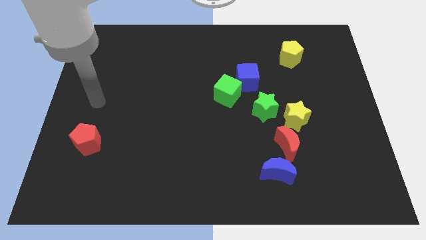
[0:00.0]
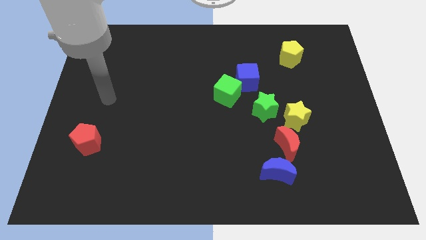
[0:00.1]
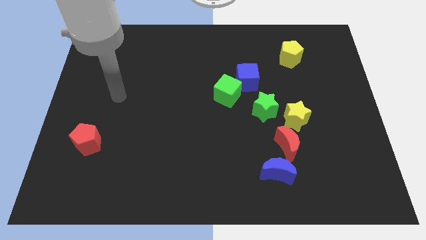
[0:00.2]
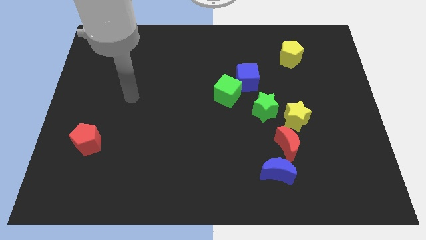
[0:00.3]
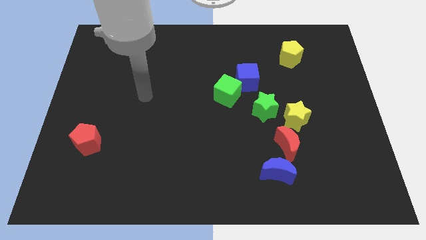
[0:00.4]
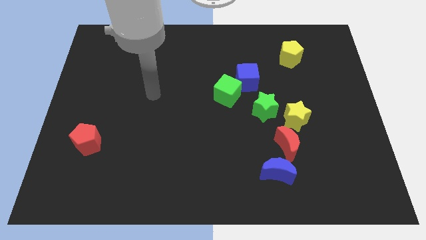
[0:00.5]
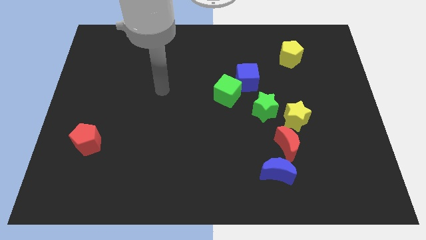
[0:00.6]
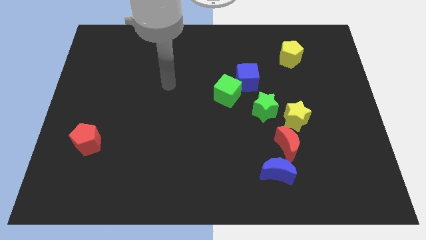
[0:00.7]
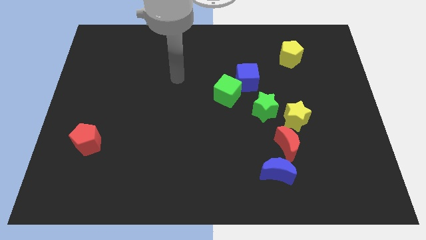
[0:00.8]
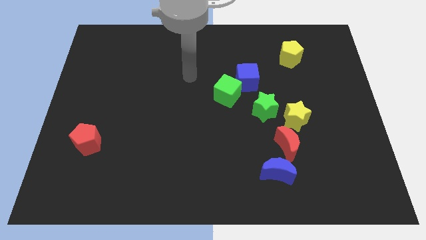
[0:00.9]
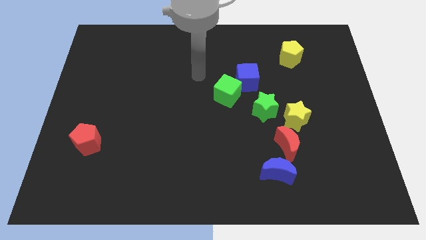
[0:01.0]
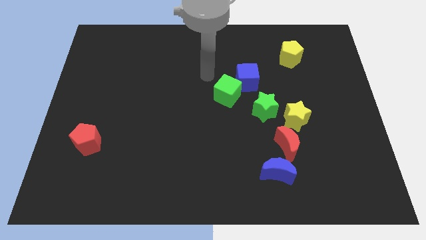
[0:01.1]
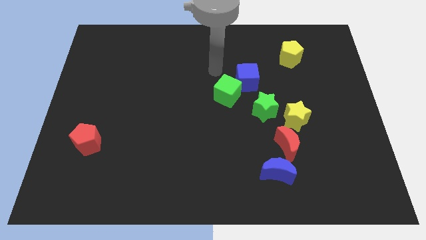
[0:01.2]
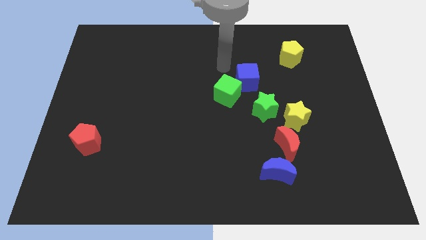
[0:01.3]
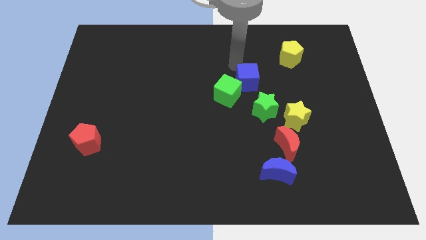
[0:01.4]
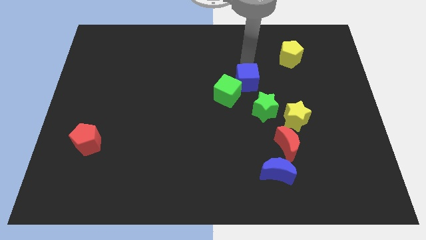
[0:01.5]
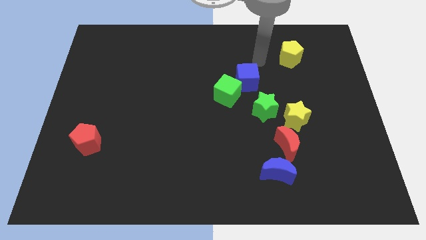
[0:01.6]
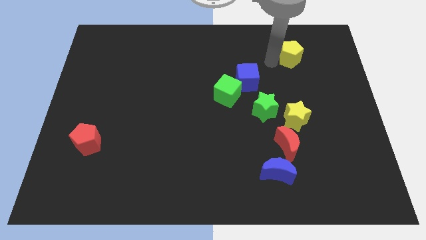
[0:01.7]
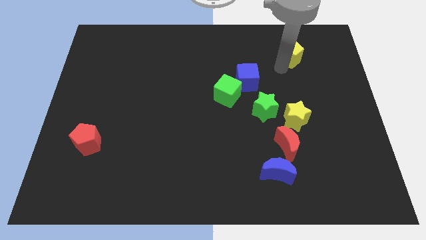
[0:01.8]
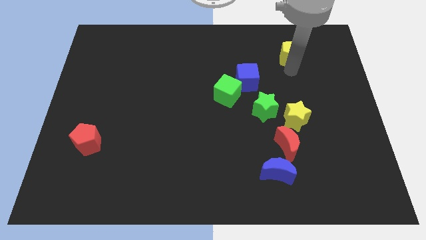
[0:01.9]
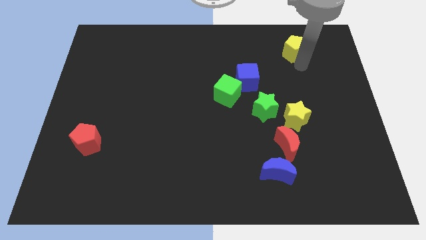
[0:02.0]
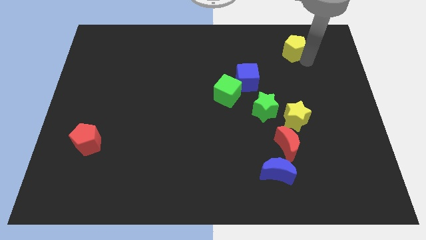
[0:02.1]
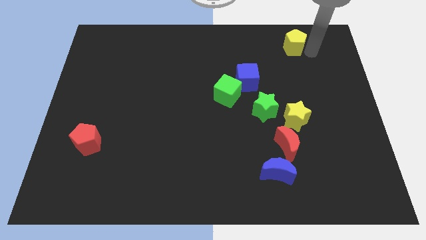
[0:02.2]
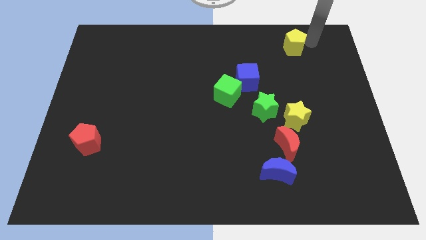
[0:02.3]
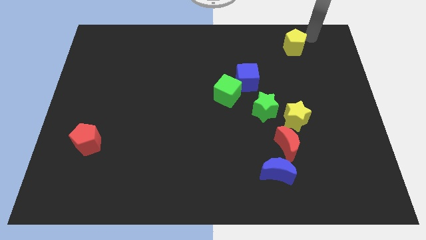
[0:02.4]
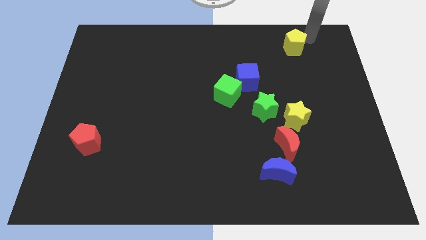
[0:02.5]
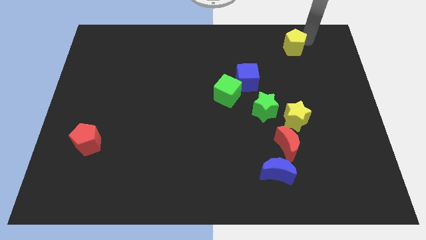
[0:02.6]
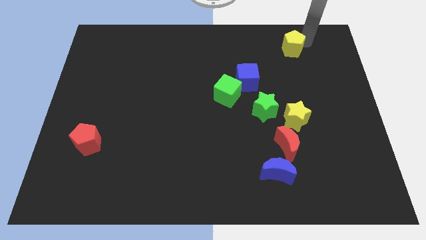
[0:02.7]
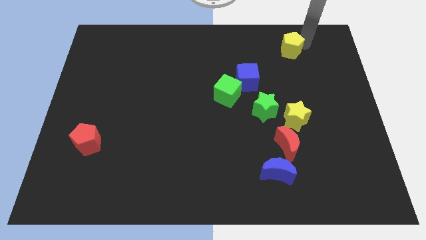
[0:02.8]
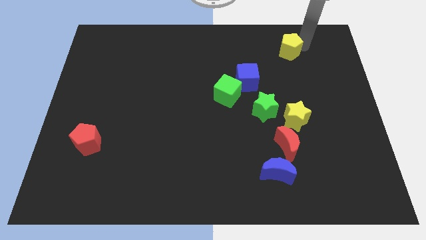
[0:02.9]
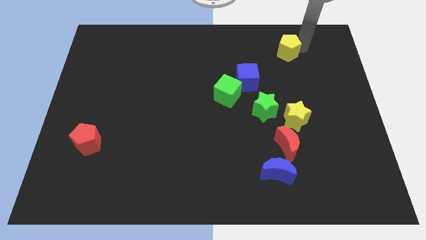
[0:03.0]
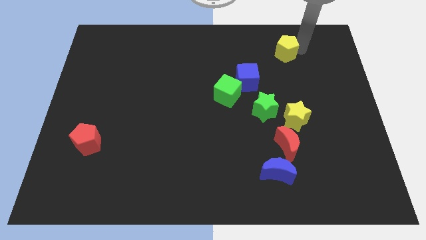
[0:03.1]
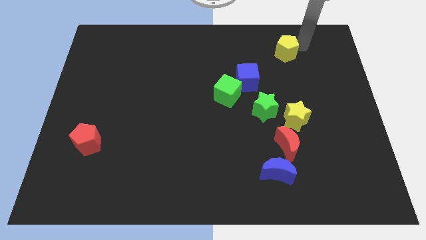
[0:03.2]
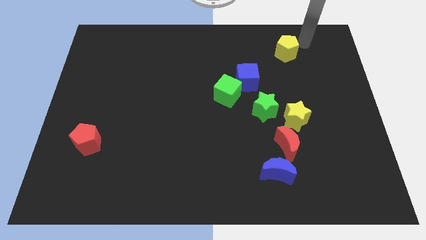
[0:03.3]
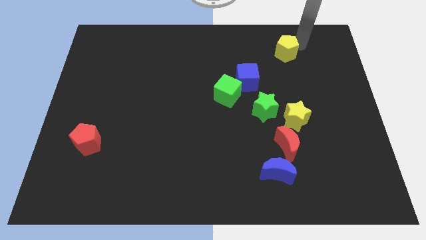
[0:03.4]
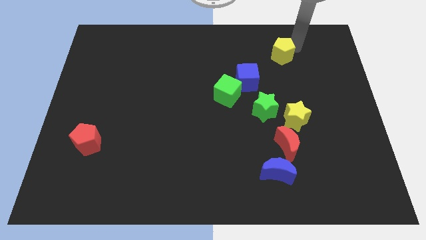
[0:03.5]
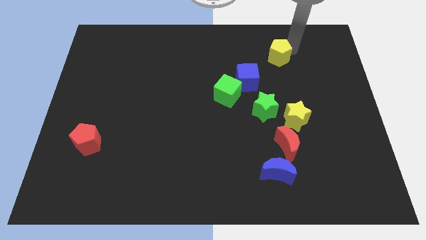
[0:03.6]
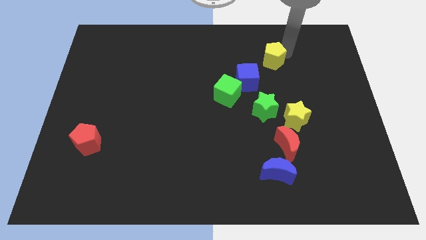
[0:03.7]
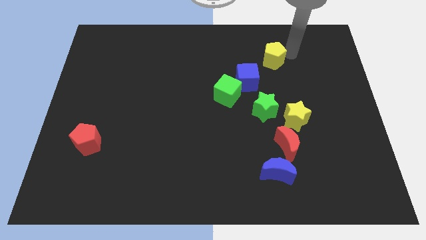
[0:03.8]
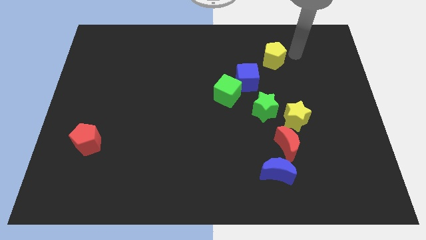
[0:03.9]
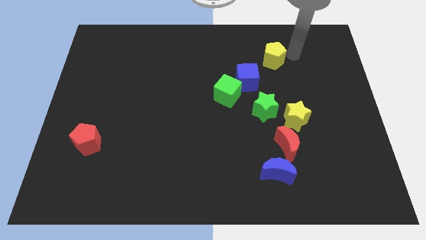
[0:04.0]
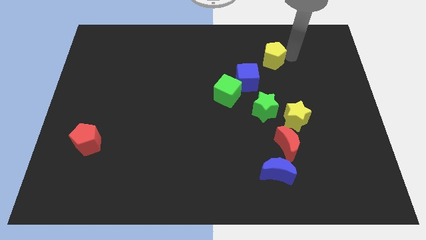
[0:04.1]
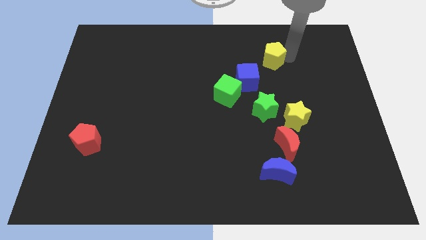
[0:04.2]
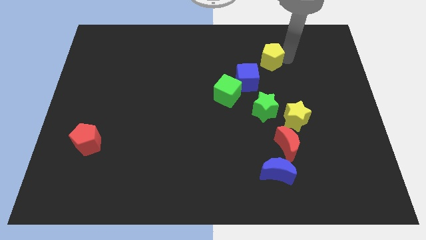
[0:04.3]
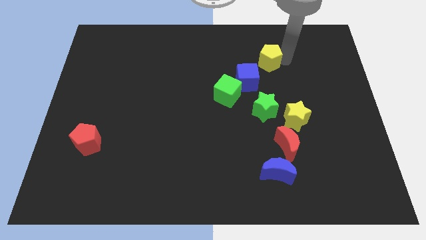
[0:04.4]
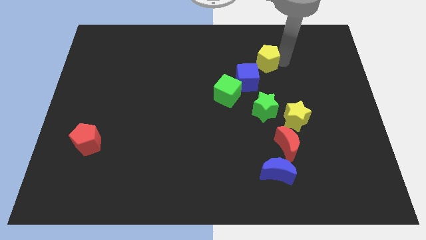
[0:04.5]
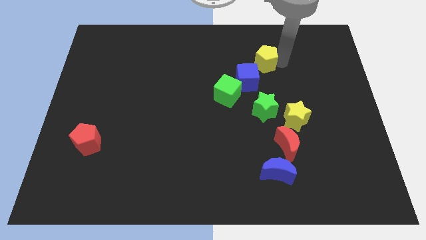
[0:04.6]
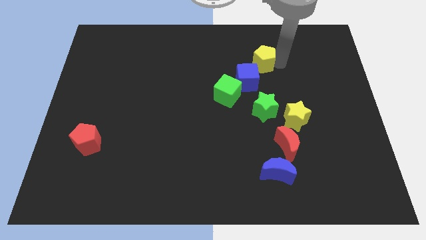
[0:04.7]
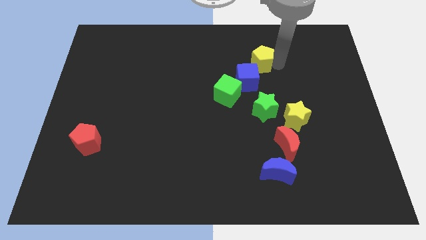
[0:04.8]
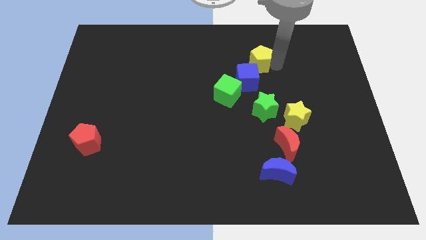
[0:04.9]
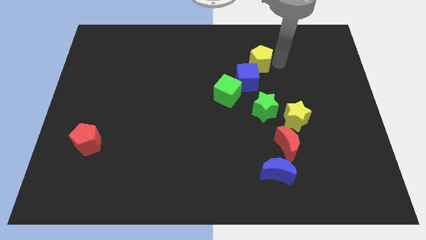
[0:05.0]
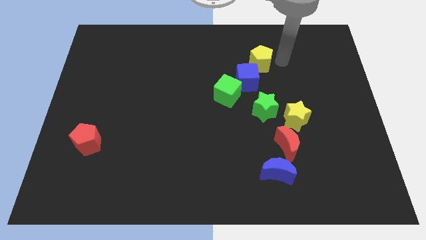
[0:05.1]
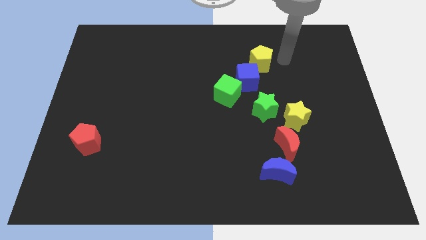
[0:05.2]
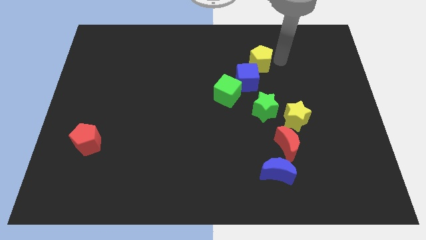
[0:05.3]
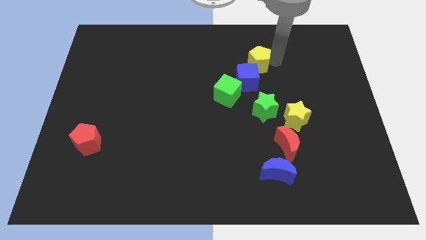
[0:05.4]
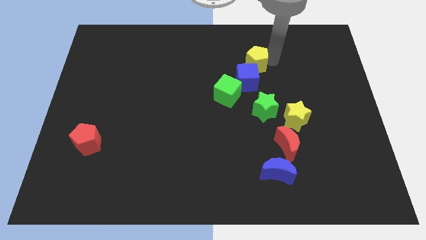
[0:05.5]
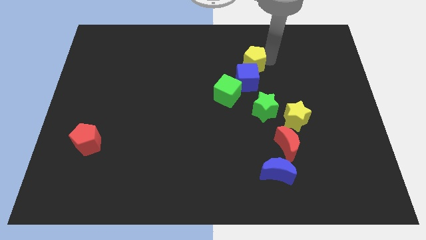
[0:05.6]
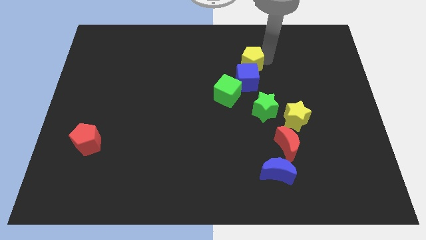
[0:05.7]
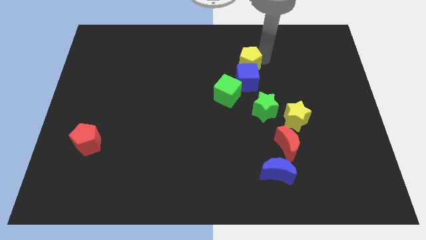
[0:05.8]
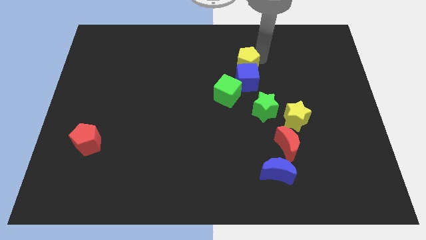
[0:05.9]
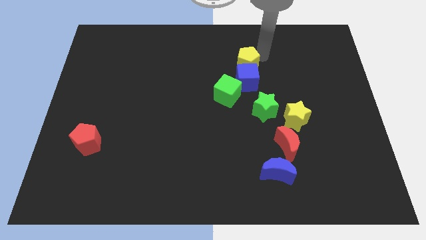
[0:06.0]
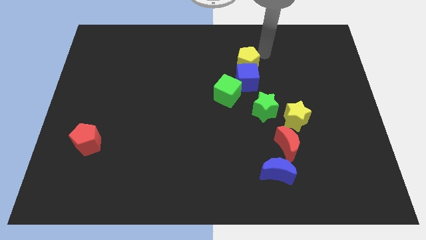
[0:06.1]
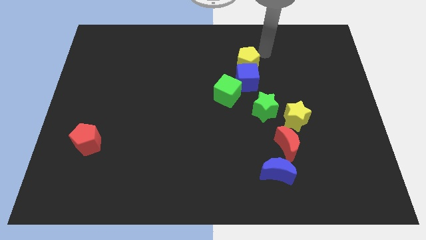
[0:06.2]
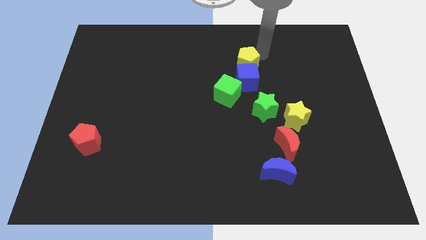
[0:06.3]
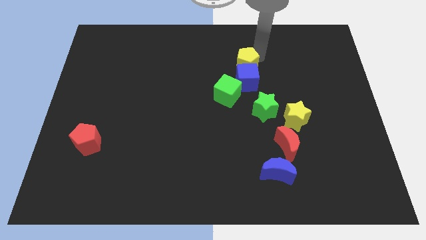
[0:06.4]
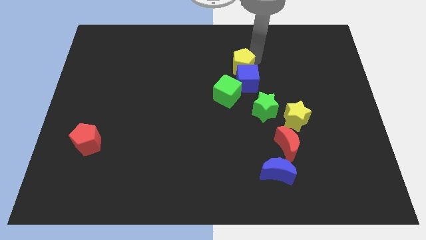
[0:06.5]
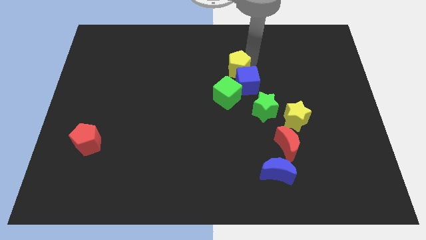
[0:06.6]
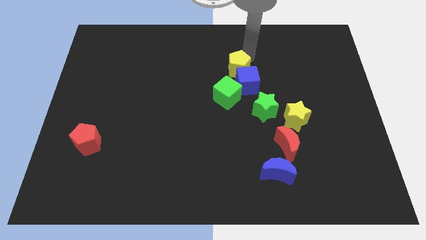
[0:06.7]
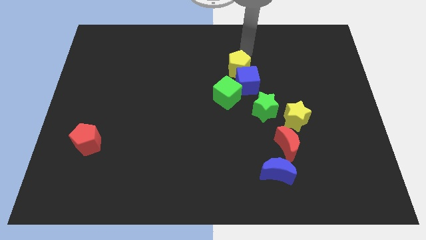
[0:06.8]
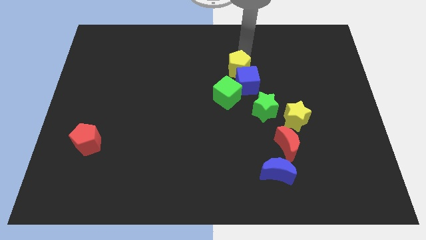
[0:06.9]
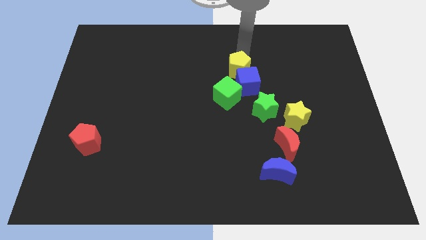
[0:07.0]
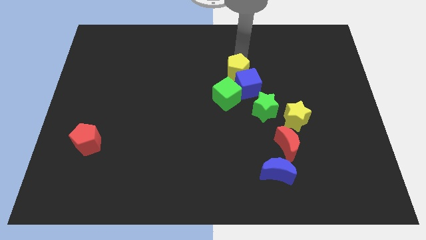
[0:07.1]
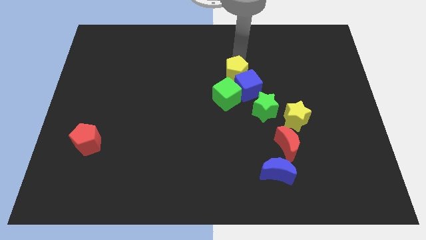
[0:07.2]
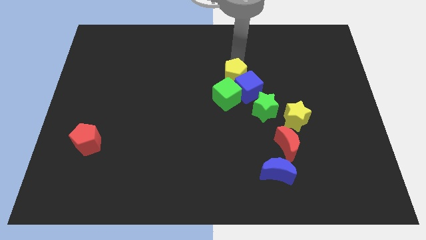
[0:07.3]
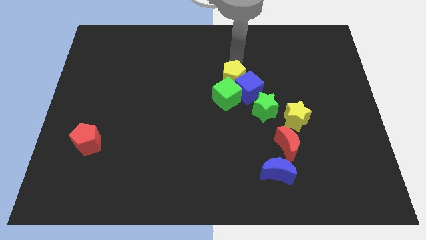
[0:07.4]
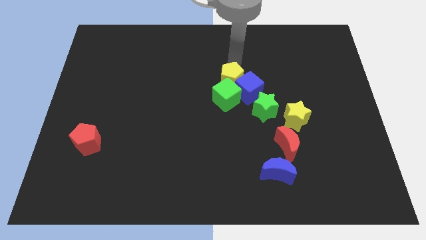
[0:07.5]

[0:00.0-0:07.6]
move the yellow pentagon close to the green cube
